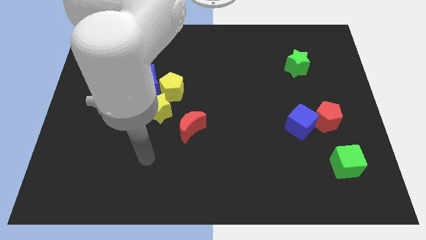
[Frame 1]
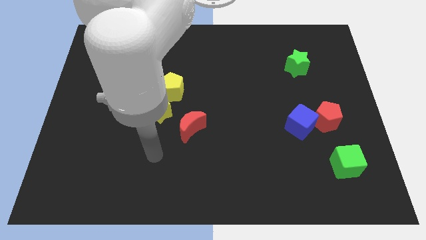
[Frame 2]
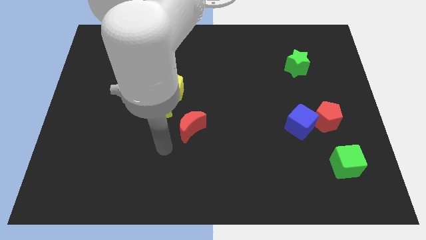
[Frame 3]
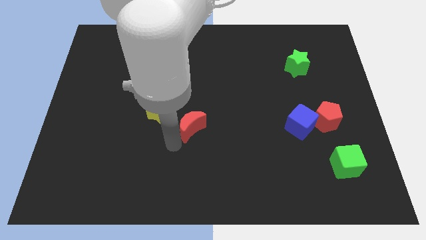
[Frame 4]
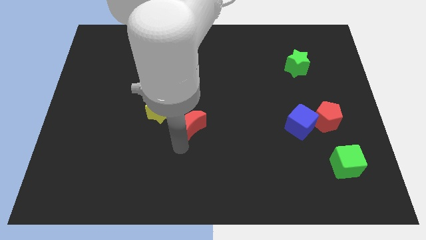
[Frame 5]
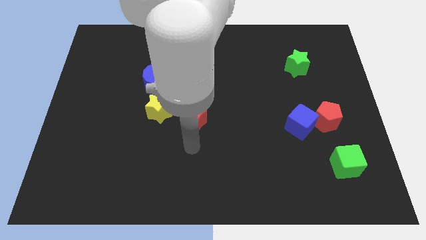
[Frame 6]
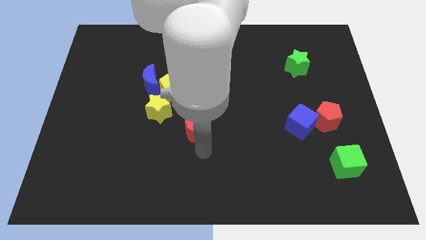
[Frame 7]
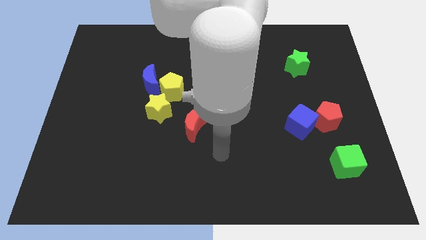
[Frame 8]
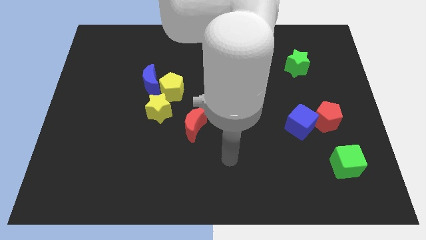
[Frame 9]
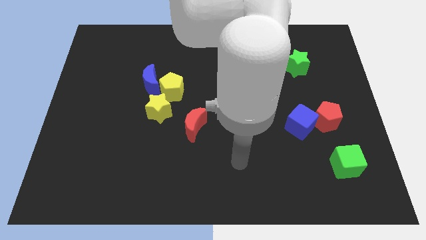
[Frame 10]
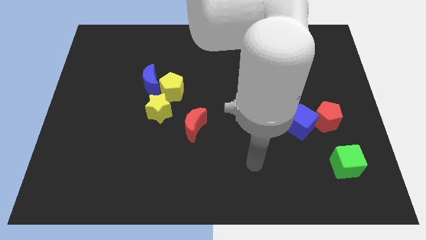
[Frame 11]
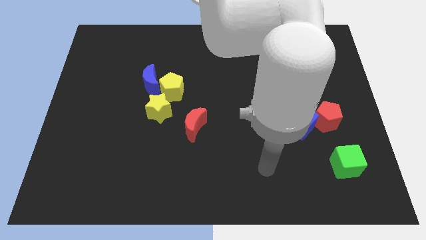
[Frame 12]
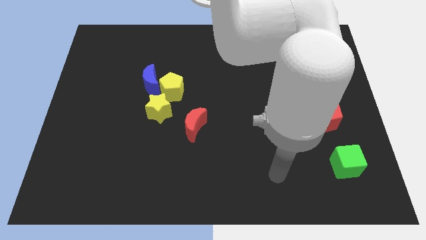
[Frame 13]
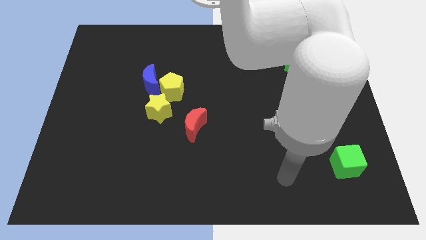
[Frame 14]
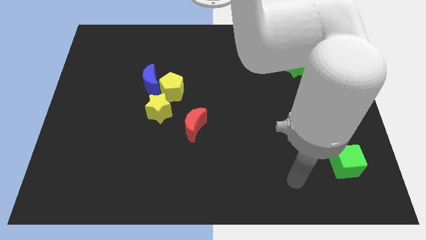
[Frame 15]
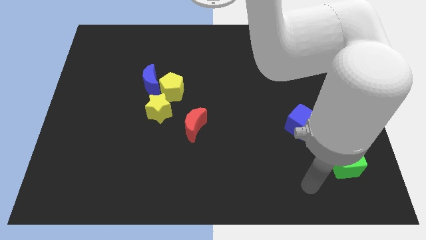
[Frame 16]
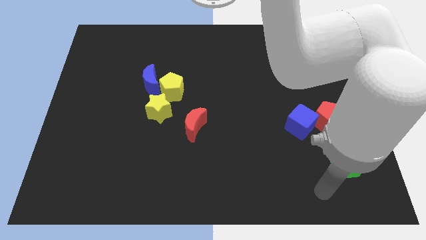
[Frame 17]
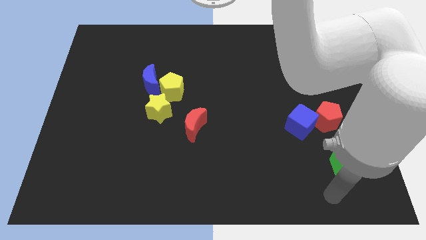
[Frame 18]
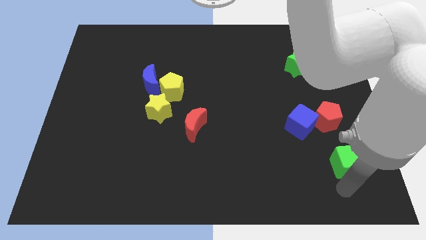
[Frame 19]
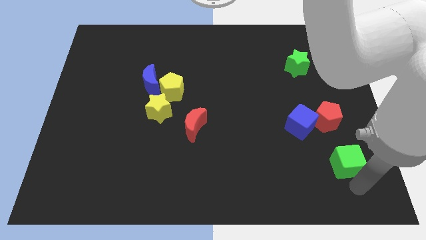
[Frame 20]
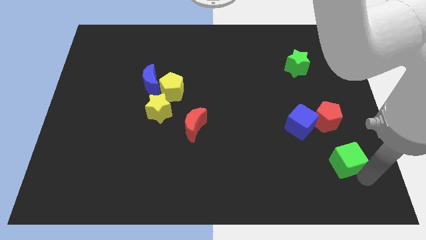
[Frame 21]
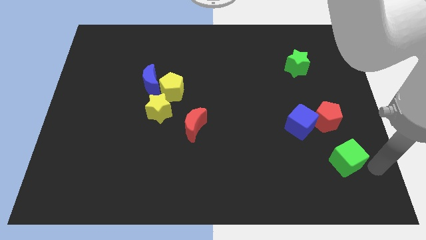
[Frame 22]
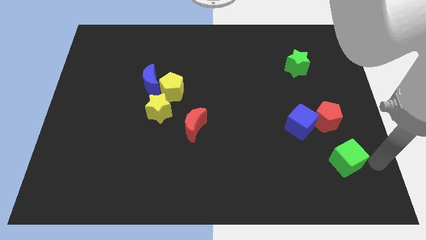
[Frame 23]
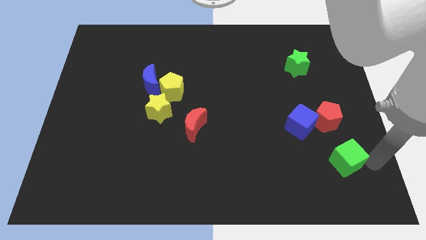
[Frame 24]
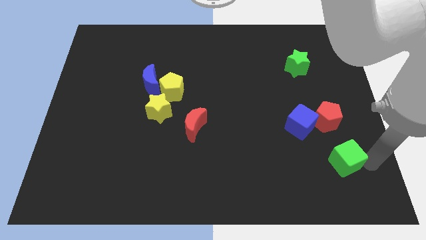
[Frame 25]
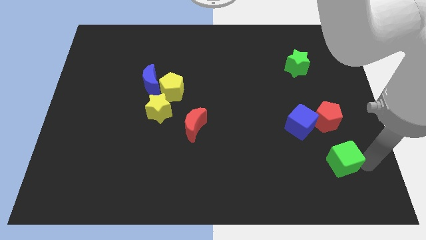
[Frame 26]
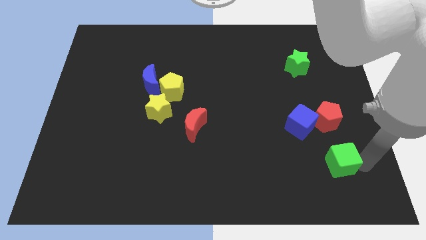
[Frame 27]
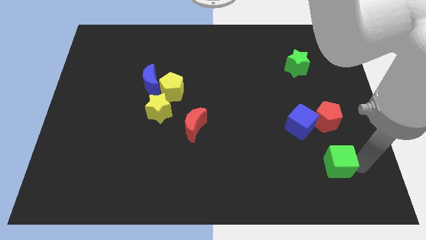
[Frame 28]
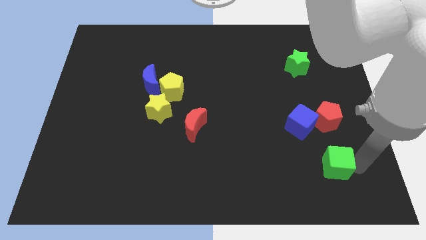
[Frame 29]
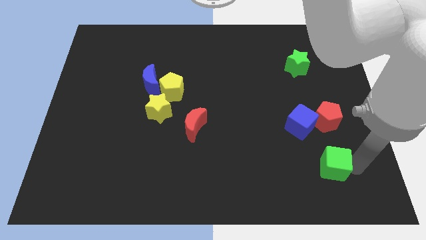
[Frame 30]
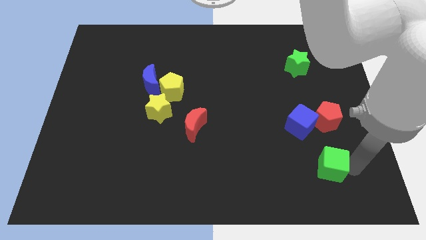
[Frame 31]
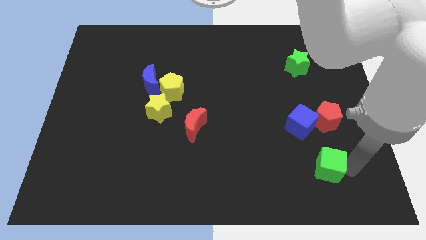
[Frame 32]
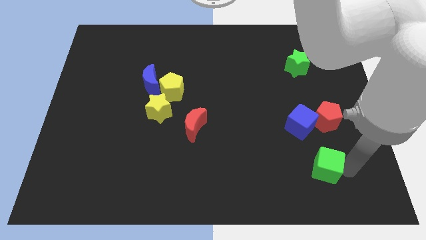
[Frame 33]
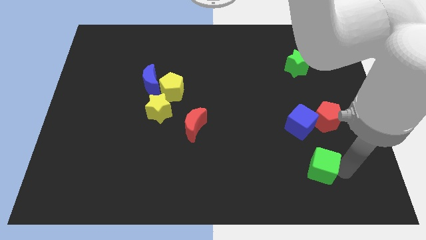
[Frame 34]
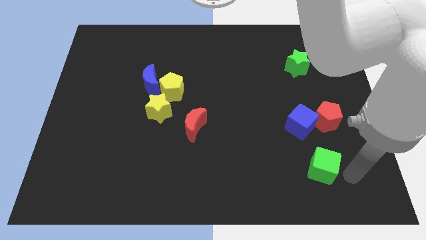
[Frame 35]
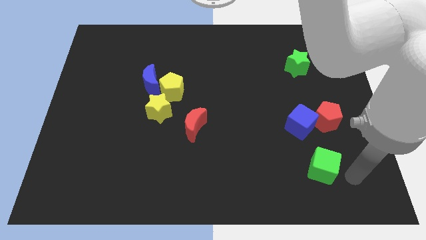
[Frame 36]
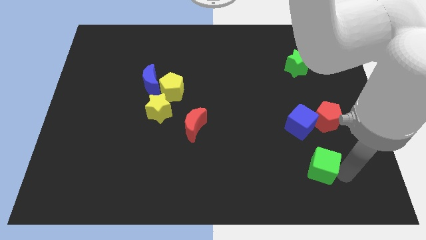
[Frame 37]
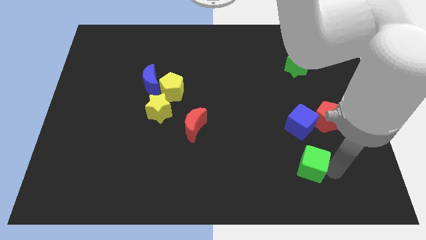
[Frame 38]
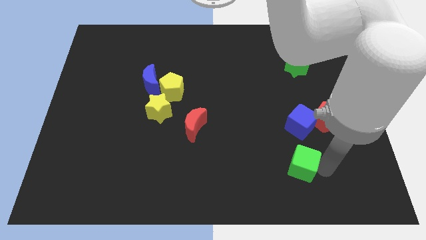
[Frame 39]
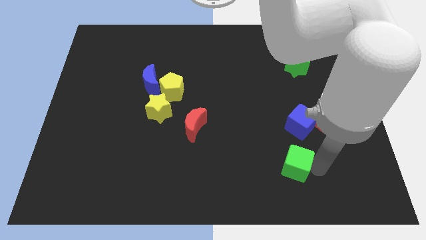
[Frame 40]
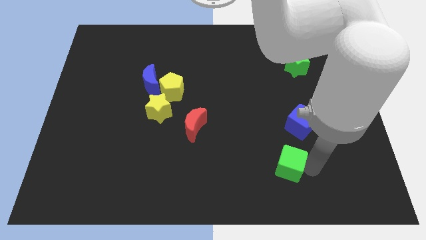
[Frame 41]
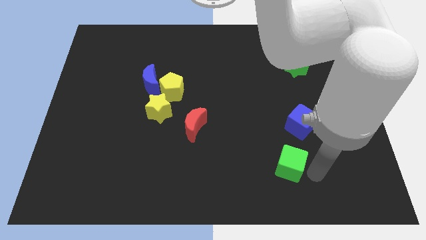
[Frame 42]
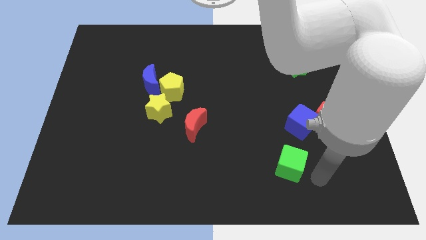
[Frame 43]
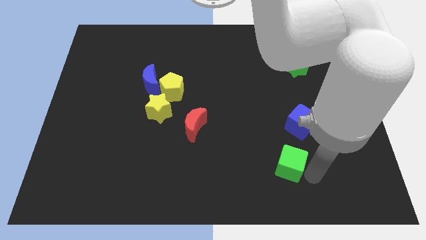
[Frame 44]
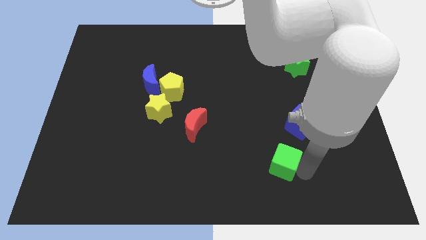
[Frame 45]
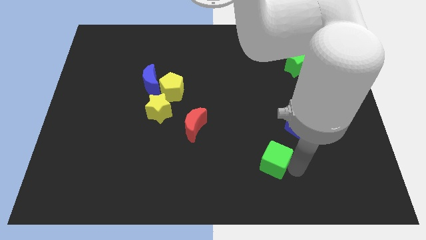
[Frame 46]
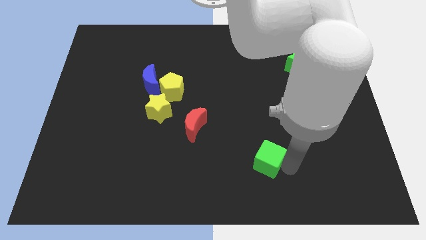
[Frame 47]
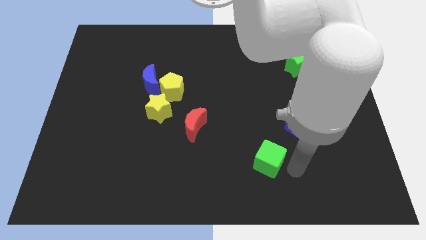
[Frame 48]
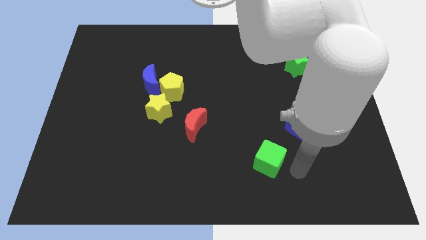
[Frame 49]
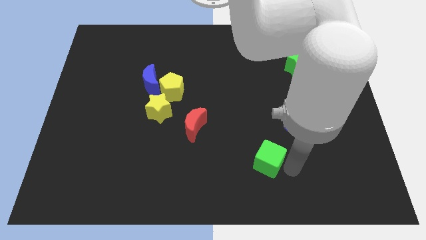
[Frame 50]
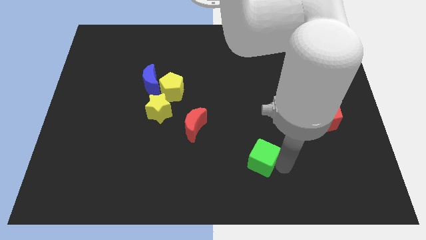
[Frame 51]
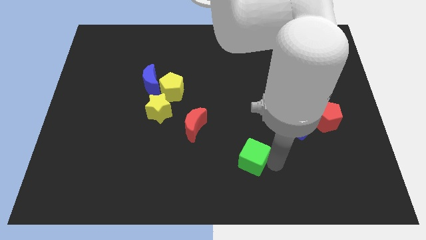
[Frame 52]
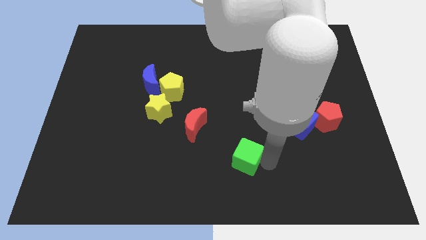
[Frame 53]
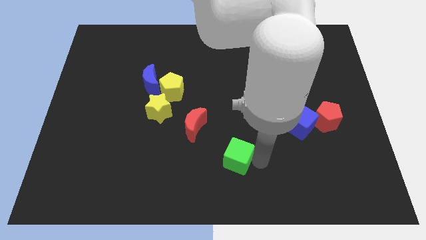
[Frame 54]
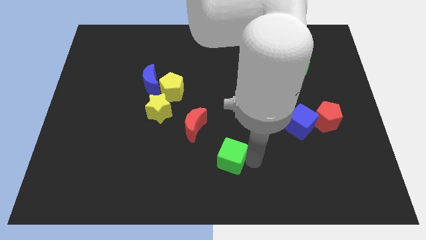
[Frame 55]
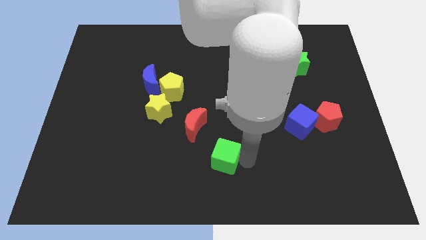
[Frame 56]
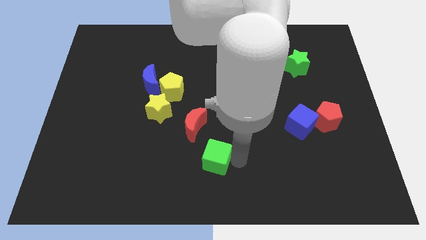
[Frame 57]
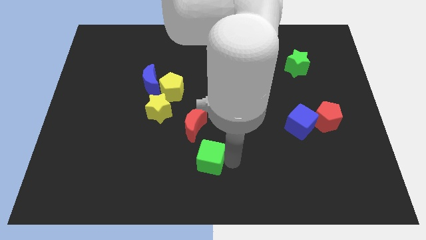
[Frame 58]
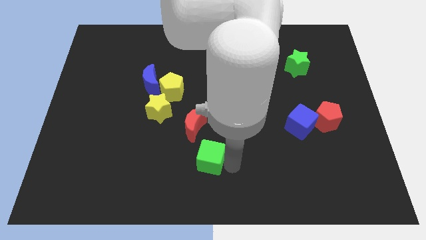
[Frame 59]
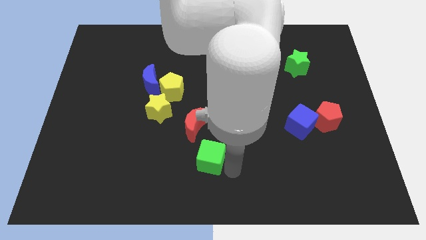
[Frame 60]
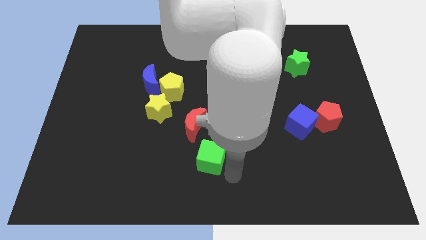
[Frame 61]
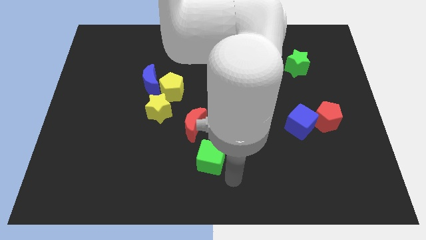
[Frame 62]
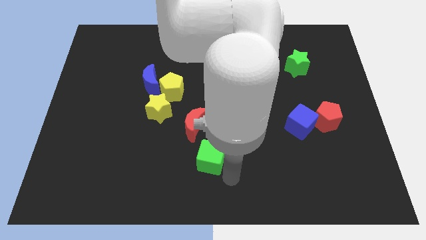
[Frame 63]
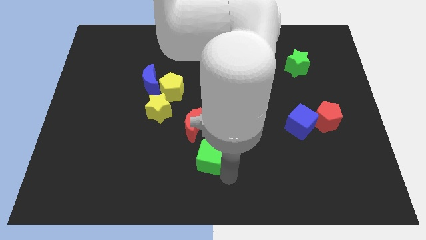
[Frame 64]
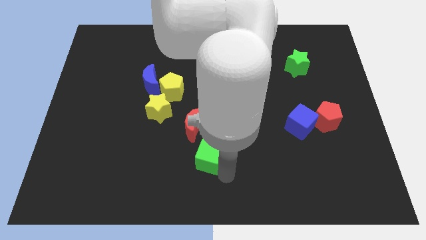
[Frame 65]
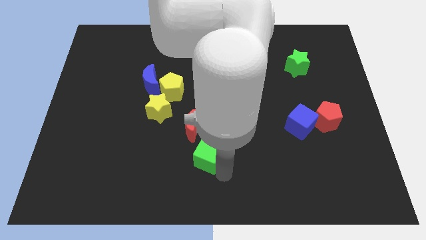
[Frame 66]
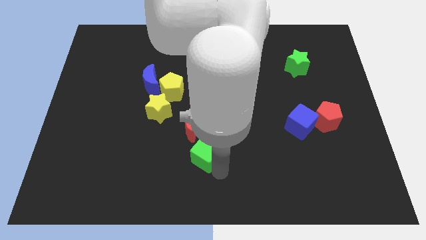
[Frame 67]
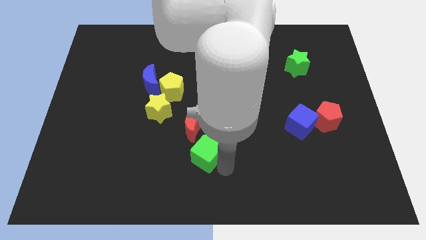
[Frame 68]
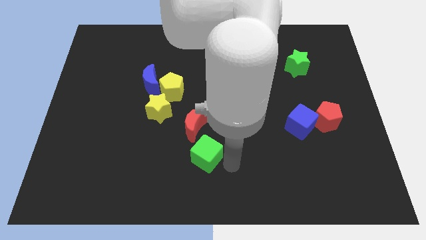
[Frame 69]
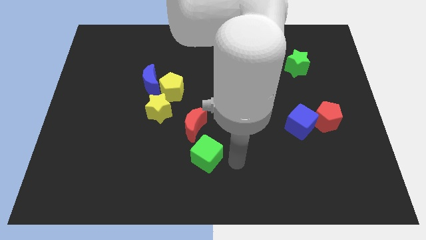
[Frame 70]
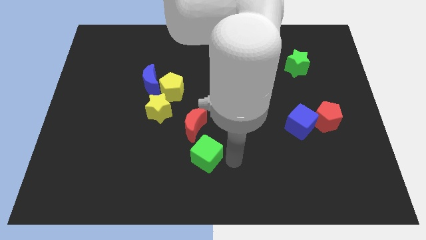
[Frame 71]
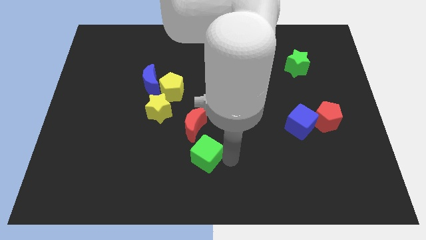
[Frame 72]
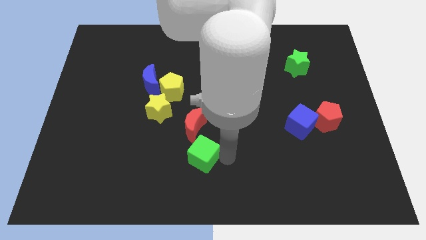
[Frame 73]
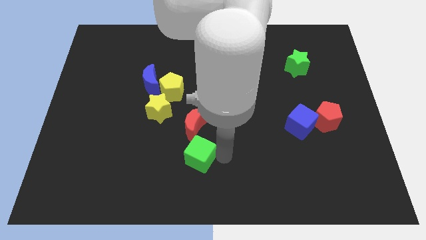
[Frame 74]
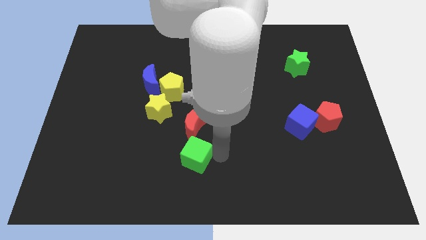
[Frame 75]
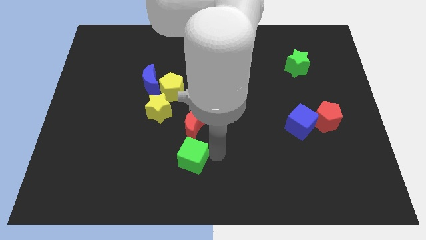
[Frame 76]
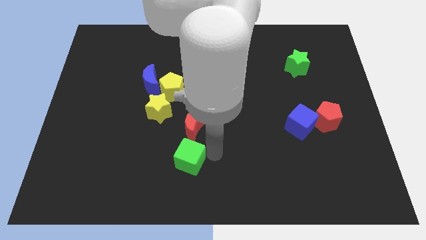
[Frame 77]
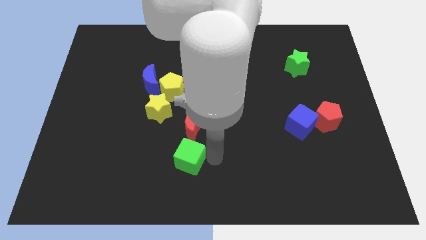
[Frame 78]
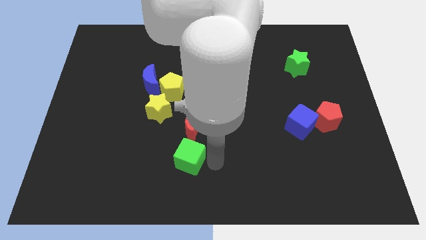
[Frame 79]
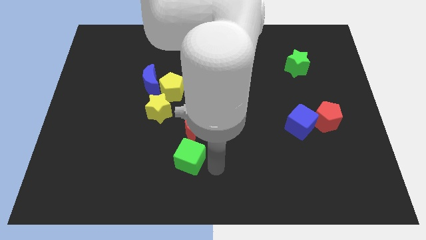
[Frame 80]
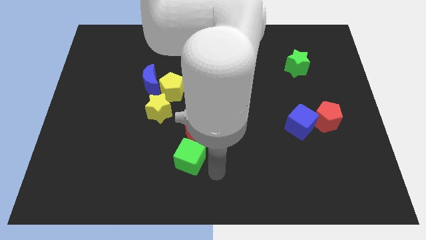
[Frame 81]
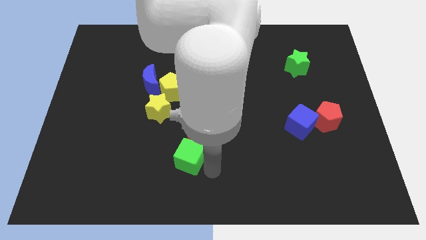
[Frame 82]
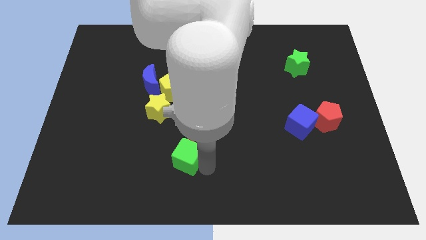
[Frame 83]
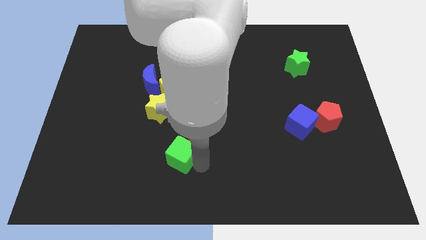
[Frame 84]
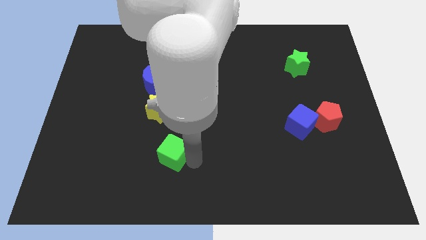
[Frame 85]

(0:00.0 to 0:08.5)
put the green cube to the bottom side of the yellow star
